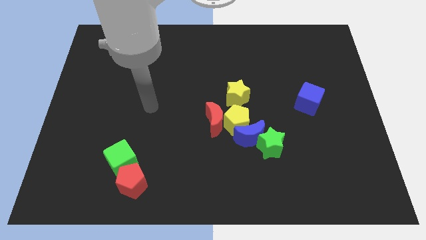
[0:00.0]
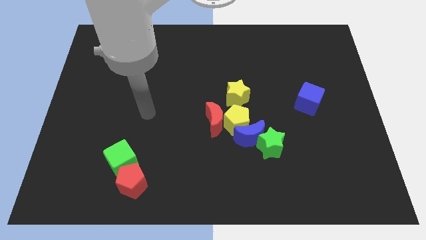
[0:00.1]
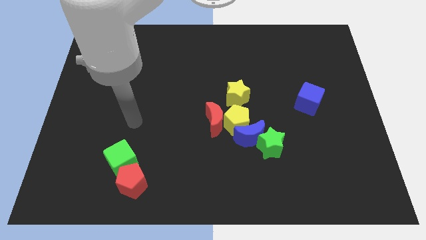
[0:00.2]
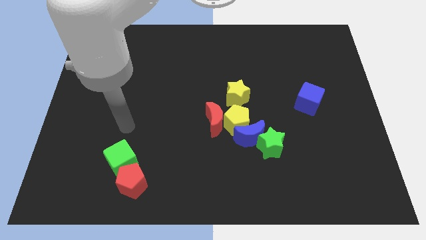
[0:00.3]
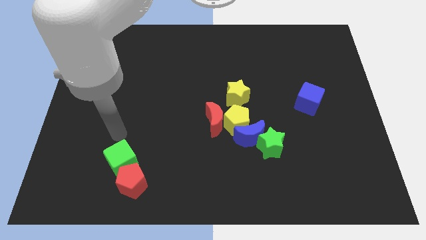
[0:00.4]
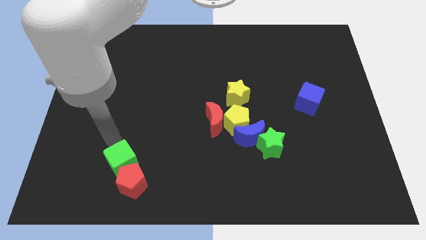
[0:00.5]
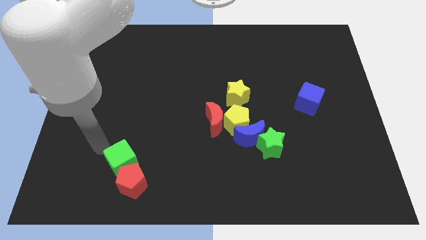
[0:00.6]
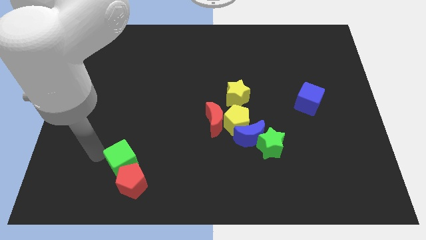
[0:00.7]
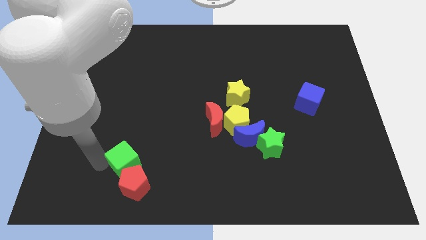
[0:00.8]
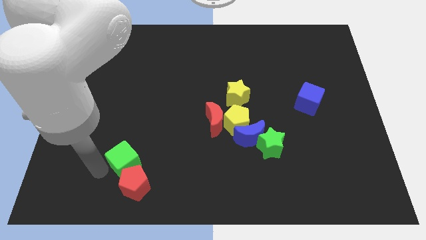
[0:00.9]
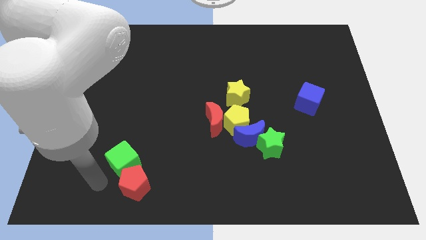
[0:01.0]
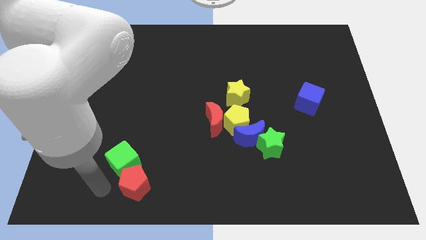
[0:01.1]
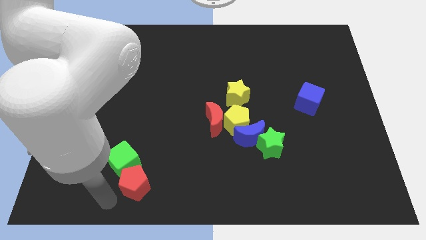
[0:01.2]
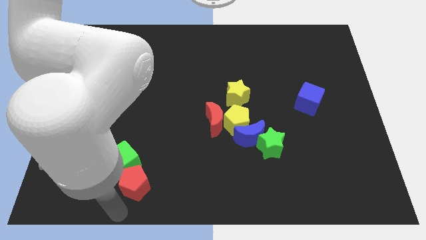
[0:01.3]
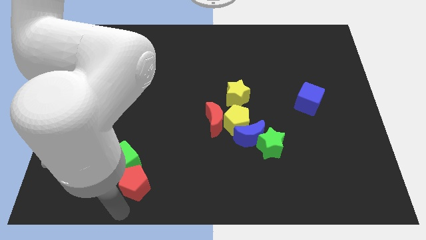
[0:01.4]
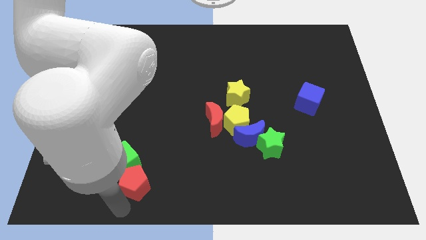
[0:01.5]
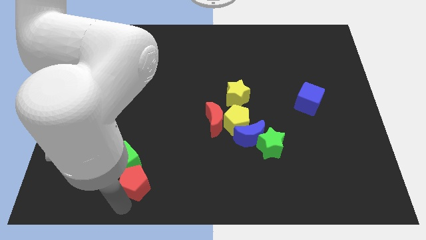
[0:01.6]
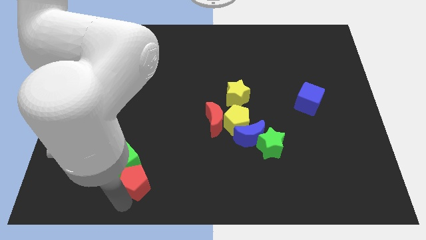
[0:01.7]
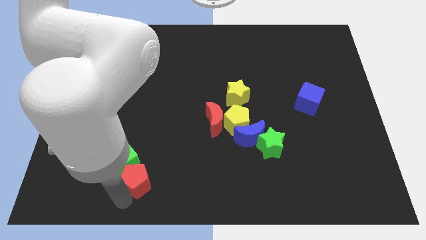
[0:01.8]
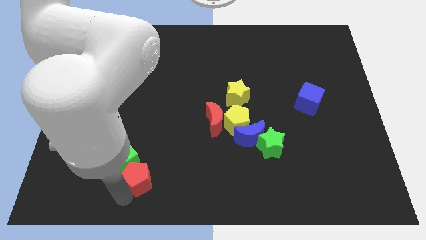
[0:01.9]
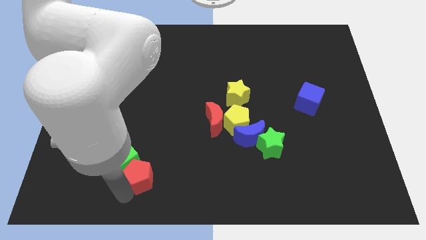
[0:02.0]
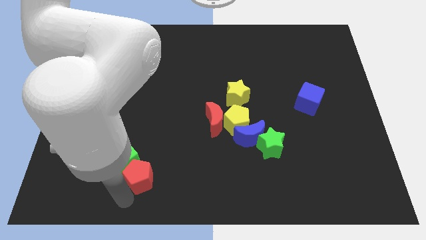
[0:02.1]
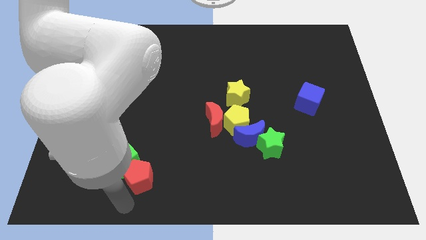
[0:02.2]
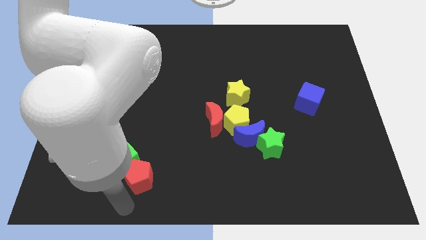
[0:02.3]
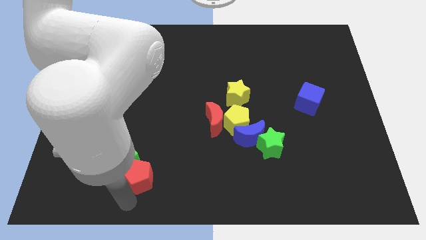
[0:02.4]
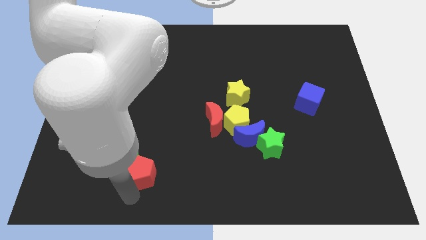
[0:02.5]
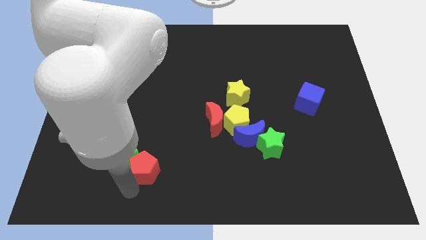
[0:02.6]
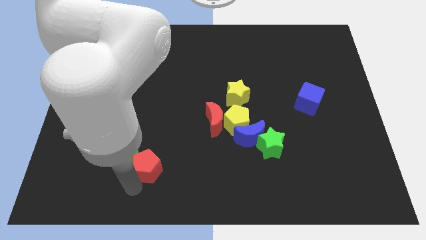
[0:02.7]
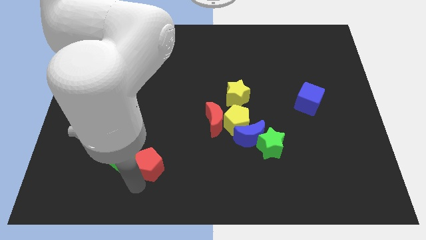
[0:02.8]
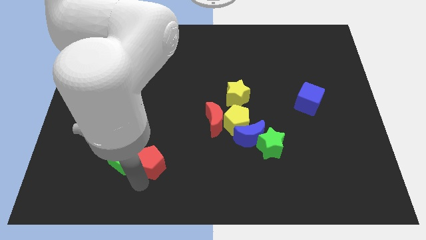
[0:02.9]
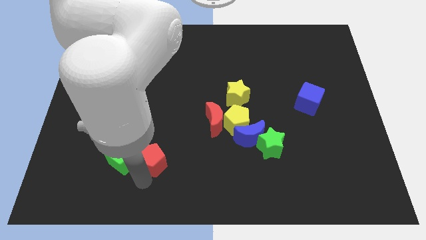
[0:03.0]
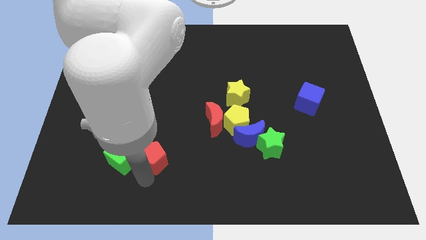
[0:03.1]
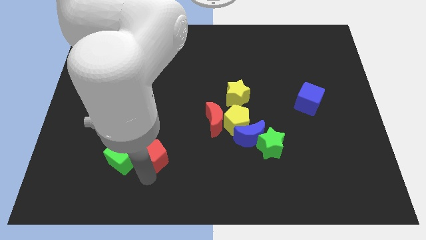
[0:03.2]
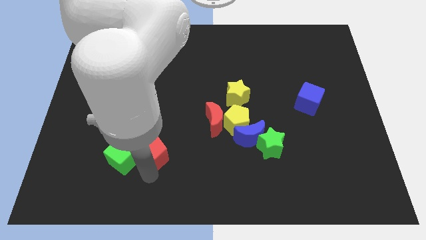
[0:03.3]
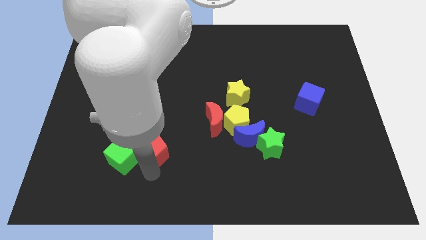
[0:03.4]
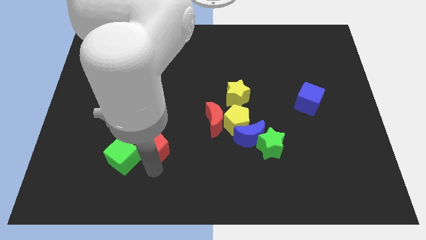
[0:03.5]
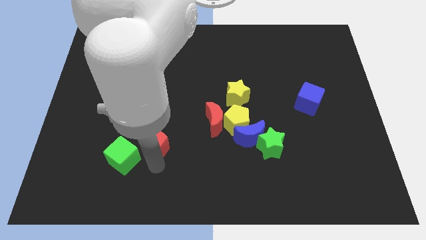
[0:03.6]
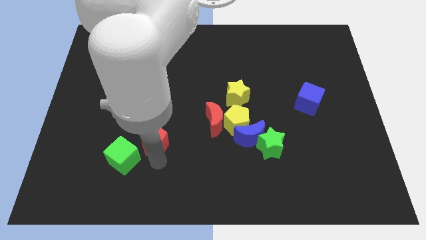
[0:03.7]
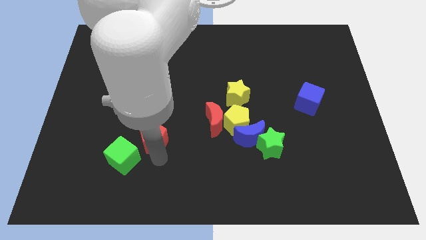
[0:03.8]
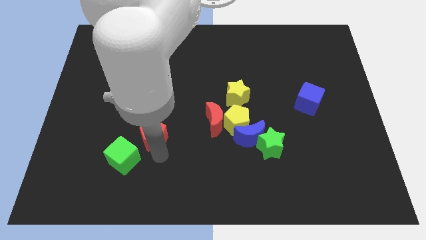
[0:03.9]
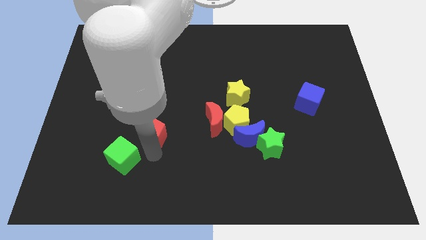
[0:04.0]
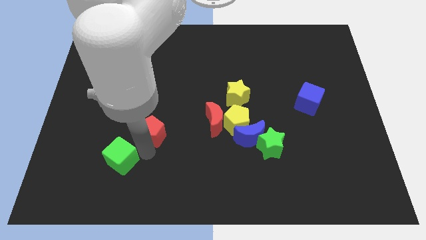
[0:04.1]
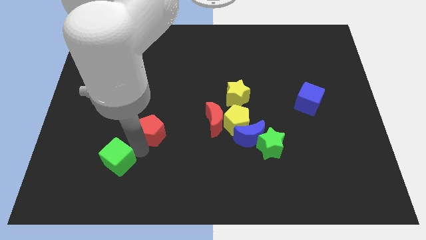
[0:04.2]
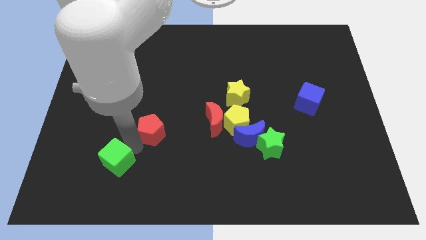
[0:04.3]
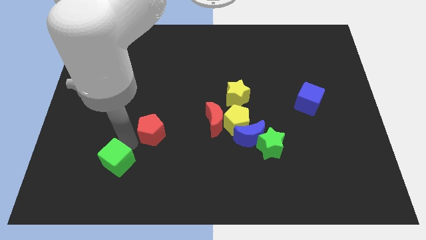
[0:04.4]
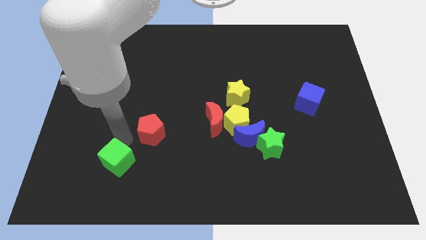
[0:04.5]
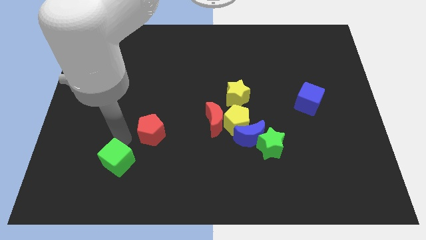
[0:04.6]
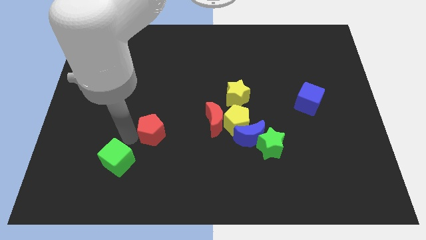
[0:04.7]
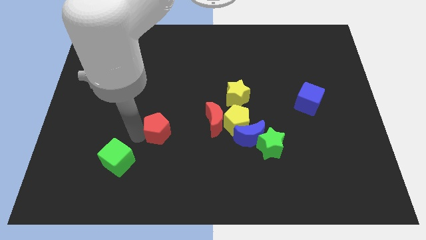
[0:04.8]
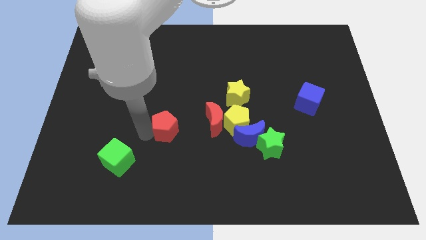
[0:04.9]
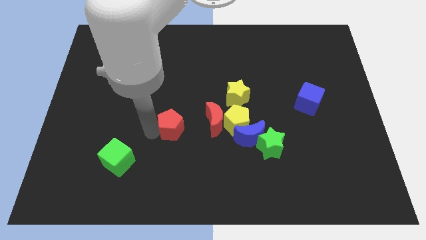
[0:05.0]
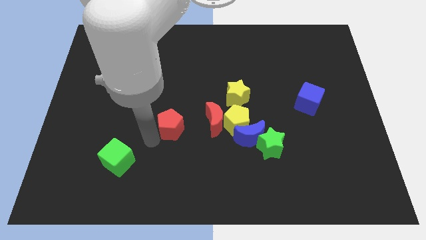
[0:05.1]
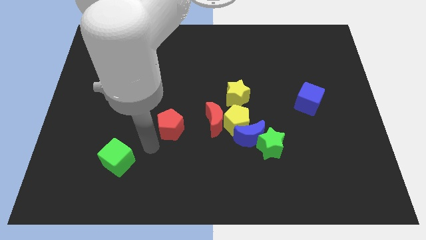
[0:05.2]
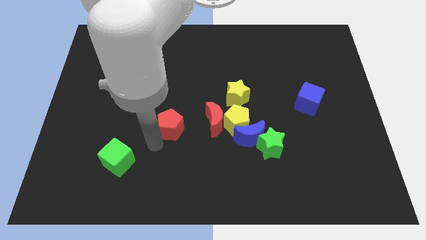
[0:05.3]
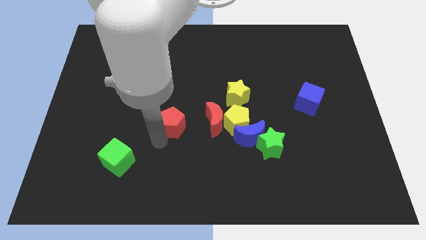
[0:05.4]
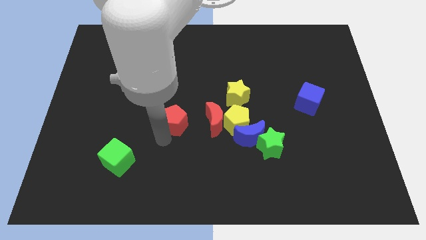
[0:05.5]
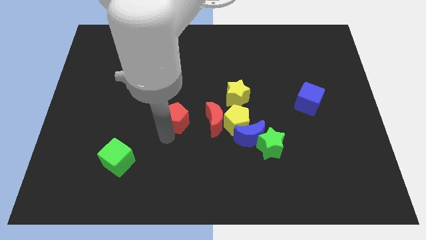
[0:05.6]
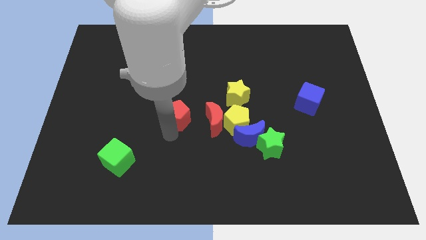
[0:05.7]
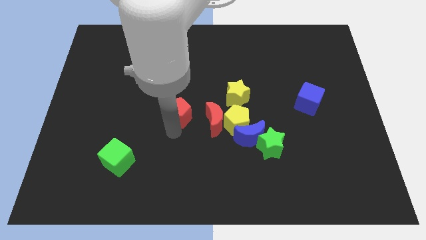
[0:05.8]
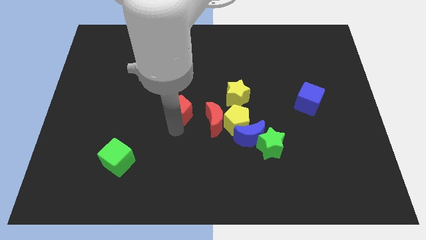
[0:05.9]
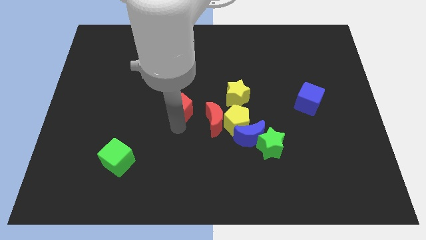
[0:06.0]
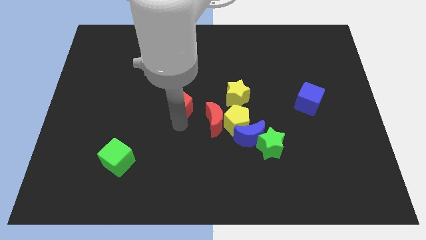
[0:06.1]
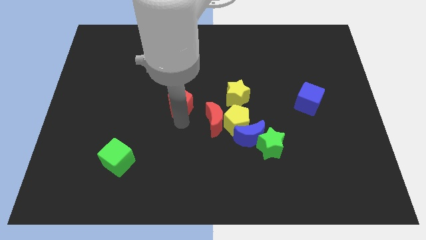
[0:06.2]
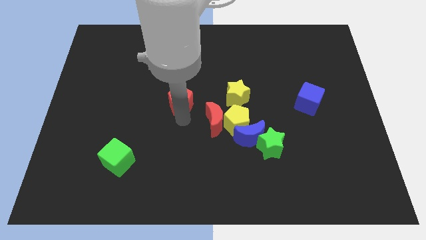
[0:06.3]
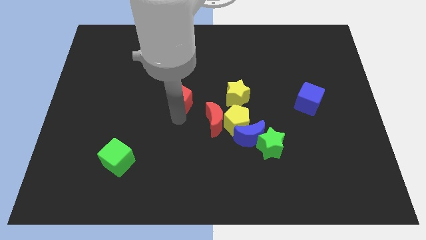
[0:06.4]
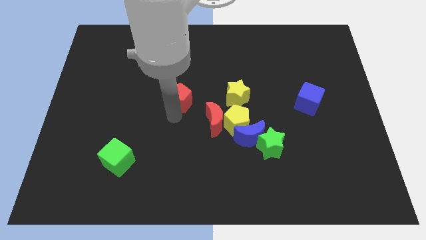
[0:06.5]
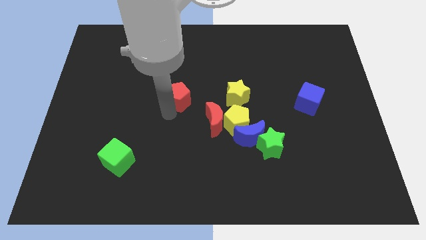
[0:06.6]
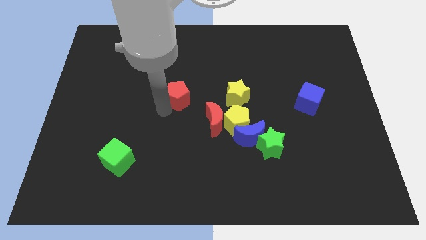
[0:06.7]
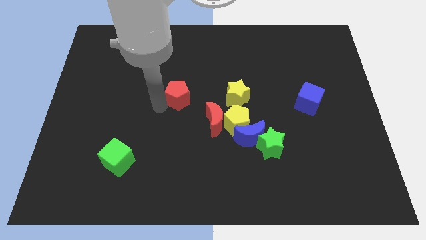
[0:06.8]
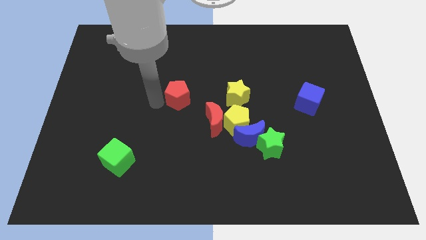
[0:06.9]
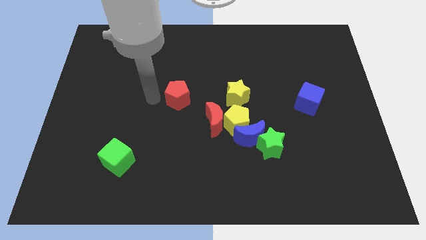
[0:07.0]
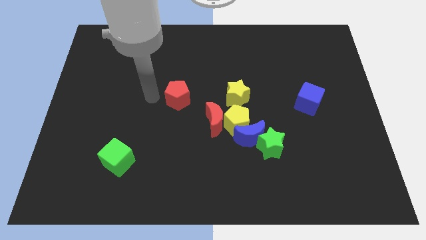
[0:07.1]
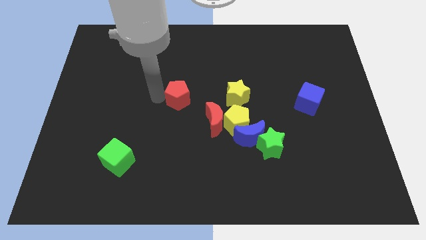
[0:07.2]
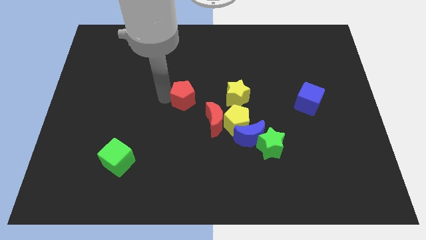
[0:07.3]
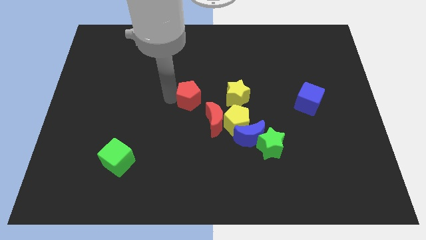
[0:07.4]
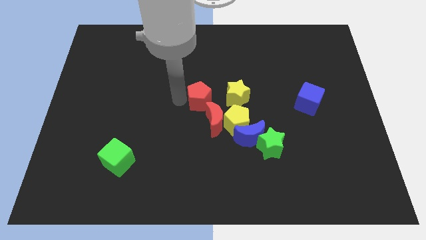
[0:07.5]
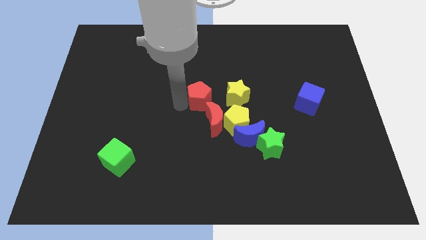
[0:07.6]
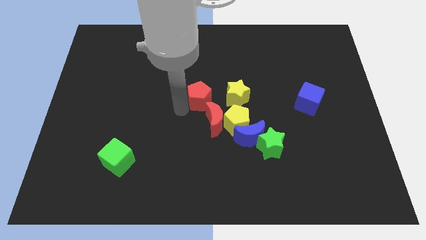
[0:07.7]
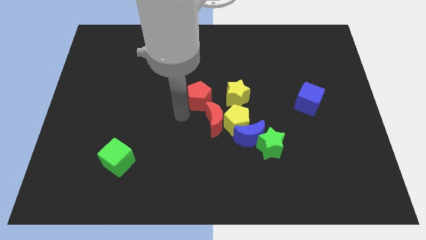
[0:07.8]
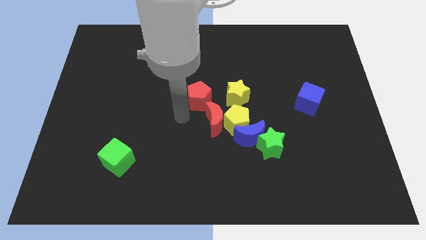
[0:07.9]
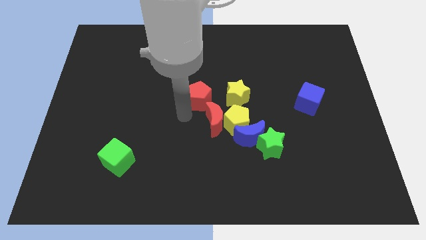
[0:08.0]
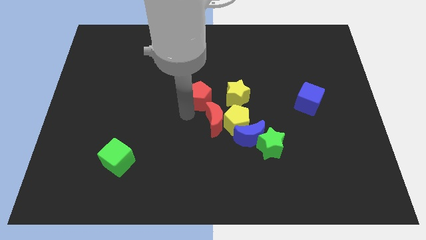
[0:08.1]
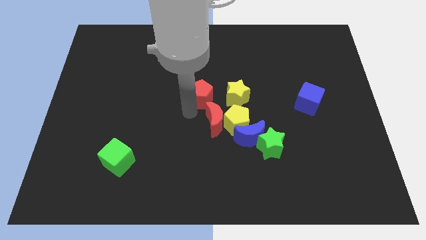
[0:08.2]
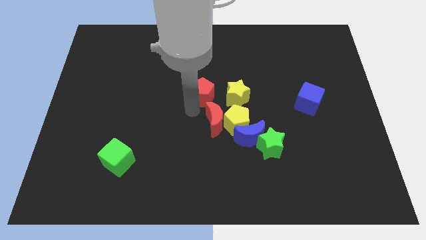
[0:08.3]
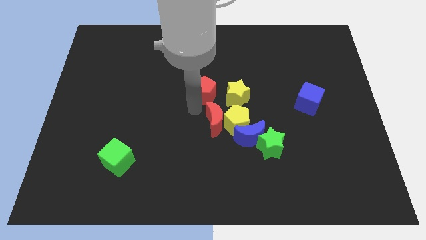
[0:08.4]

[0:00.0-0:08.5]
push the red pentagon diagonally up and to the left of the yellow star

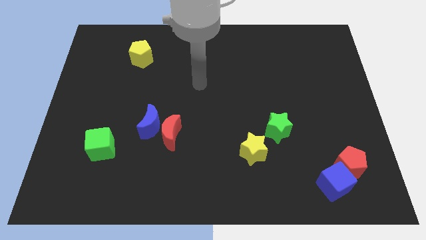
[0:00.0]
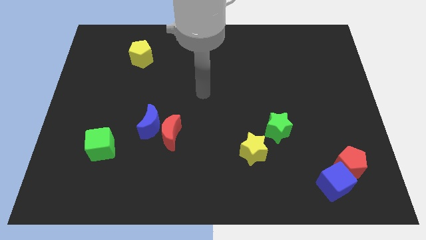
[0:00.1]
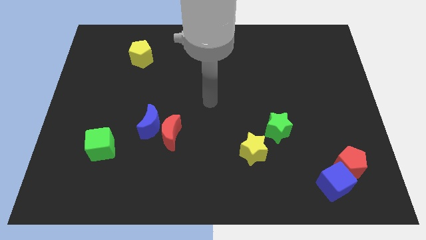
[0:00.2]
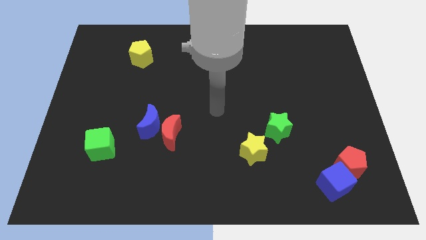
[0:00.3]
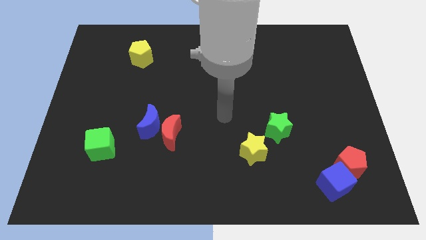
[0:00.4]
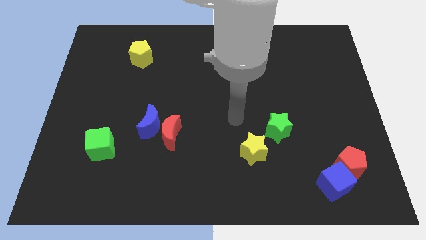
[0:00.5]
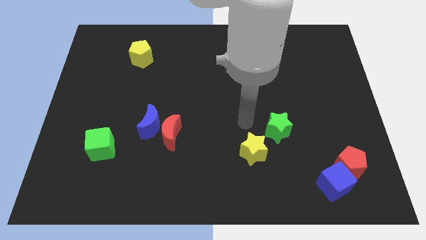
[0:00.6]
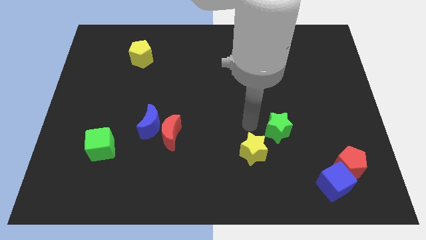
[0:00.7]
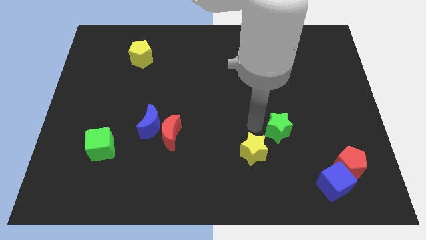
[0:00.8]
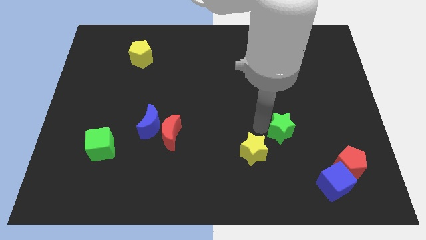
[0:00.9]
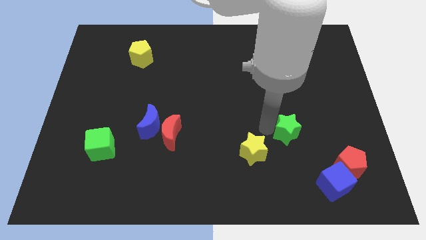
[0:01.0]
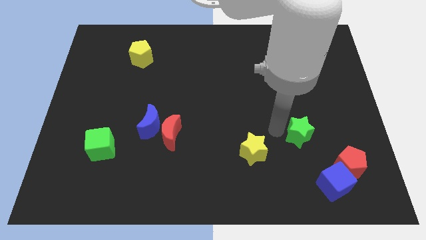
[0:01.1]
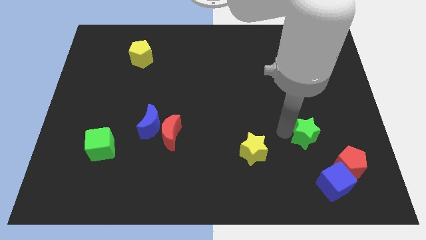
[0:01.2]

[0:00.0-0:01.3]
move the green star to the top of the blue cube
